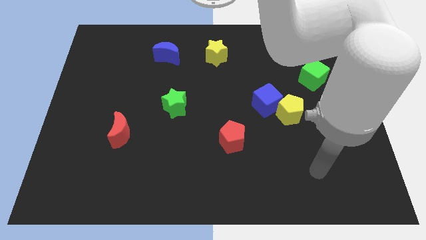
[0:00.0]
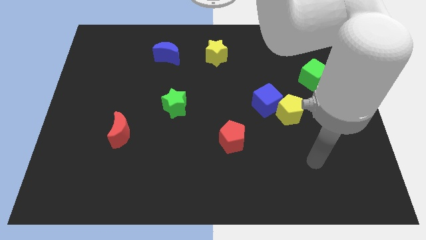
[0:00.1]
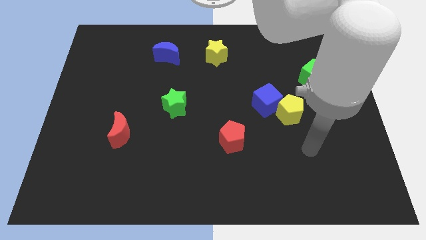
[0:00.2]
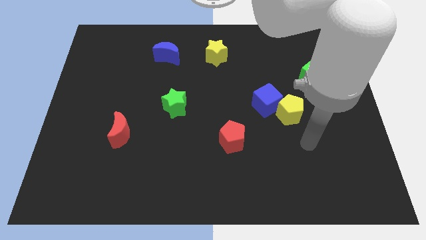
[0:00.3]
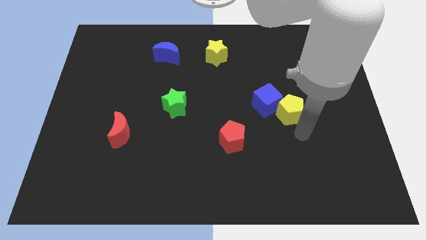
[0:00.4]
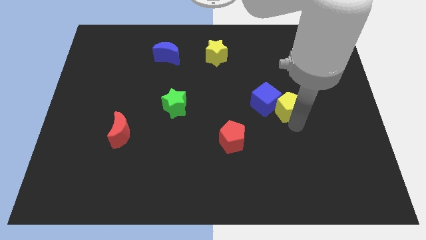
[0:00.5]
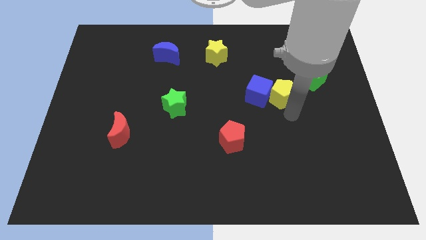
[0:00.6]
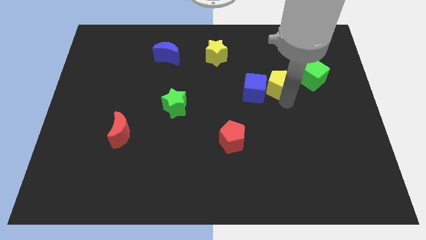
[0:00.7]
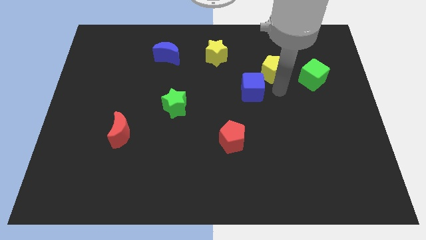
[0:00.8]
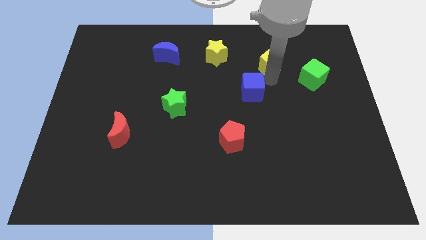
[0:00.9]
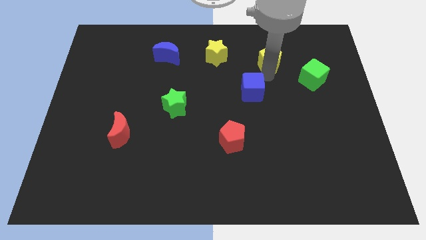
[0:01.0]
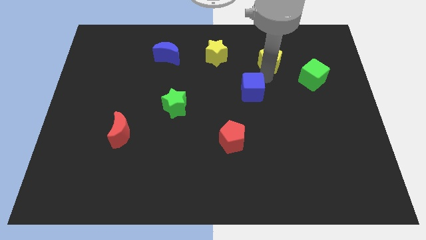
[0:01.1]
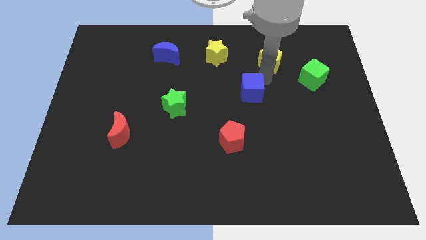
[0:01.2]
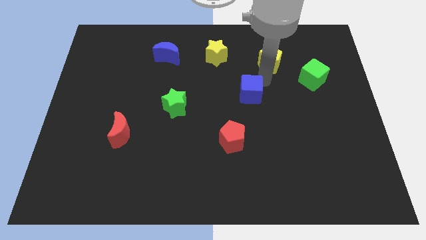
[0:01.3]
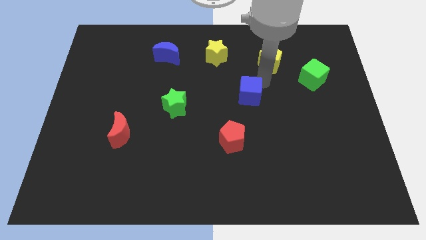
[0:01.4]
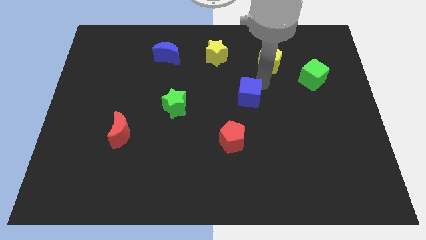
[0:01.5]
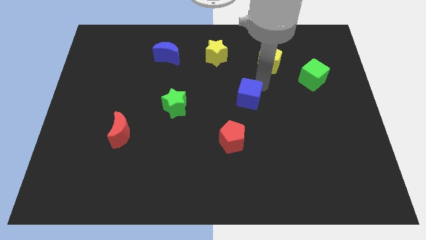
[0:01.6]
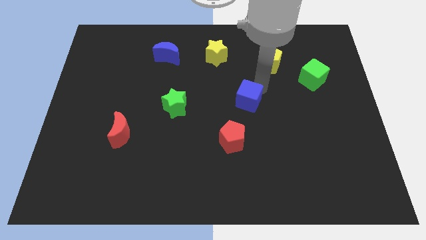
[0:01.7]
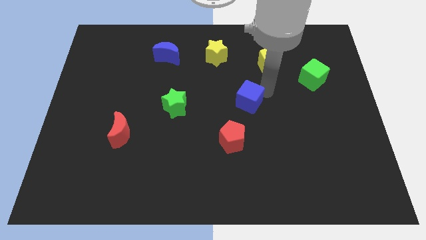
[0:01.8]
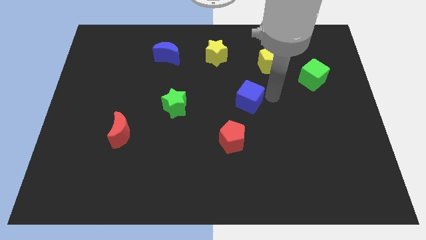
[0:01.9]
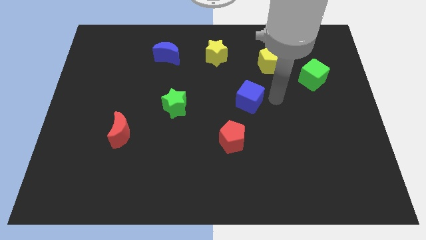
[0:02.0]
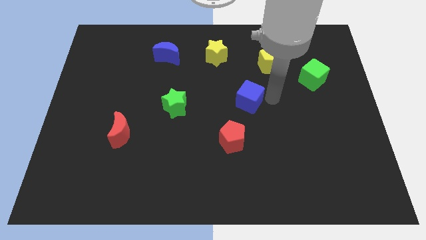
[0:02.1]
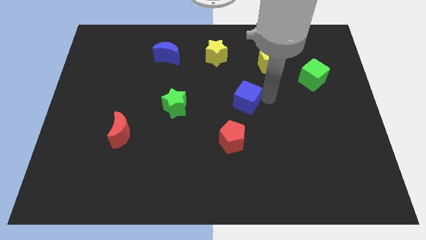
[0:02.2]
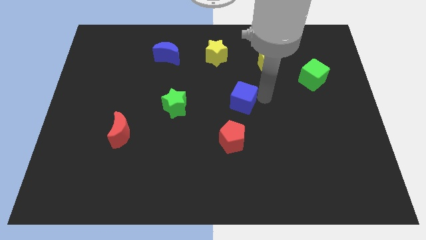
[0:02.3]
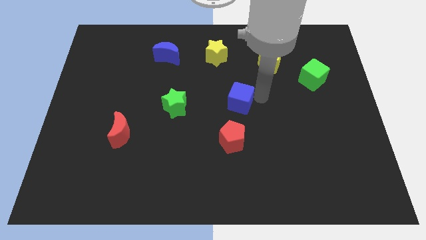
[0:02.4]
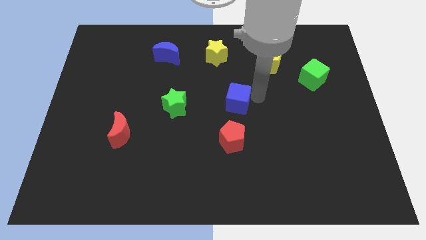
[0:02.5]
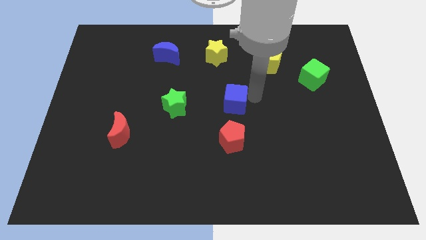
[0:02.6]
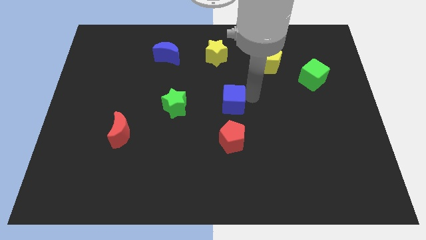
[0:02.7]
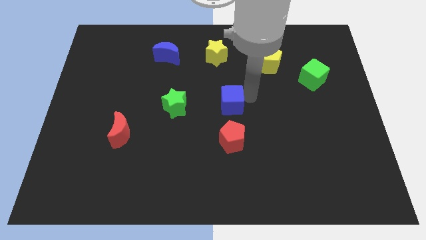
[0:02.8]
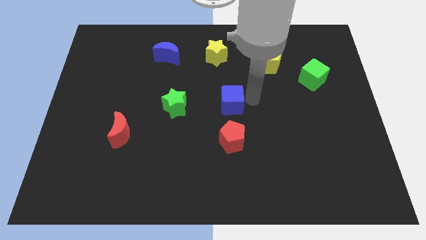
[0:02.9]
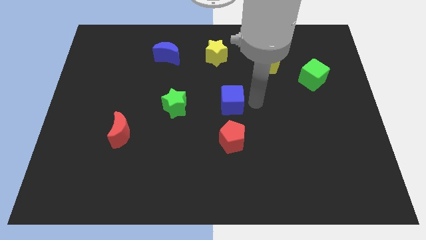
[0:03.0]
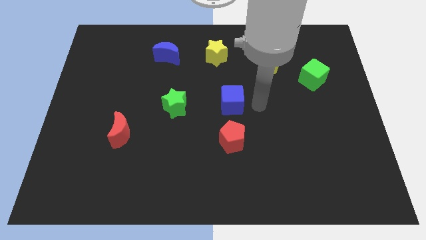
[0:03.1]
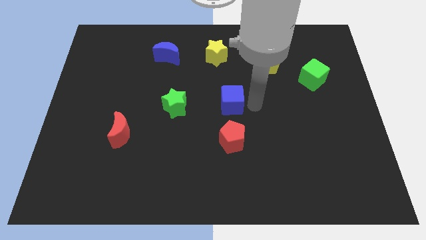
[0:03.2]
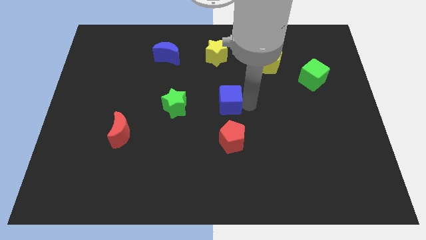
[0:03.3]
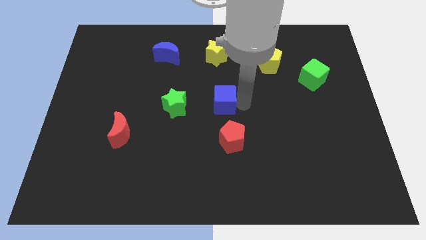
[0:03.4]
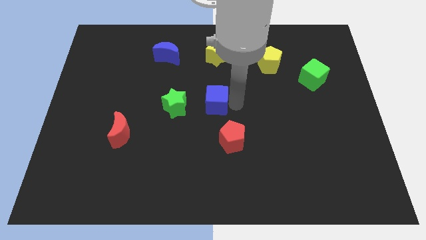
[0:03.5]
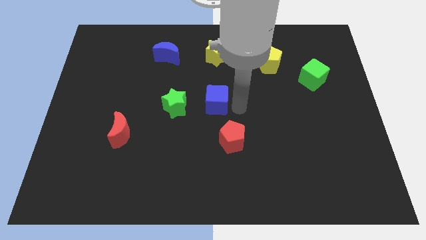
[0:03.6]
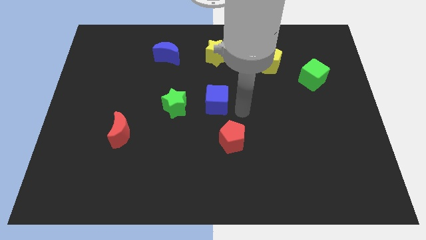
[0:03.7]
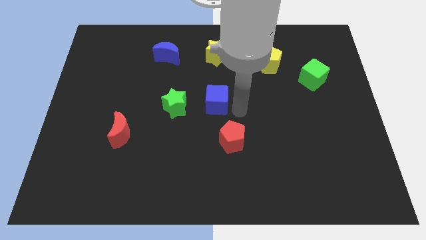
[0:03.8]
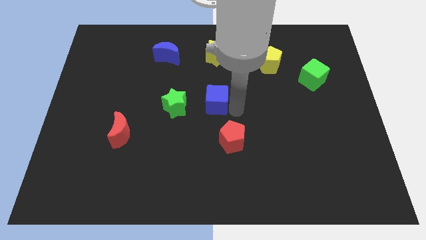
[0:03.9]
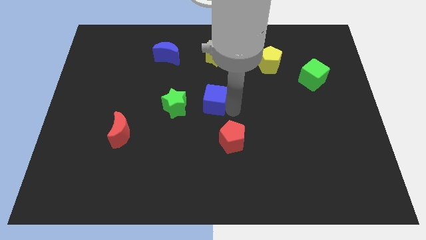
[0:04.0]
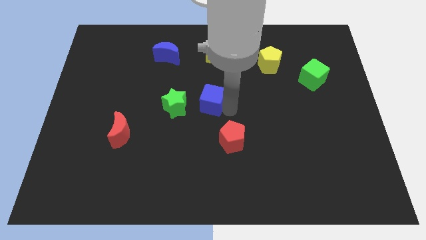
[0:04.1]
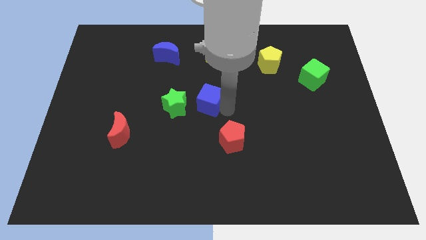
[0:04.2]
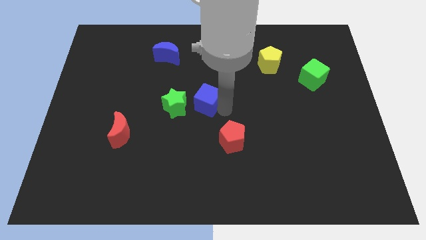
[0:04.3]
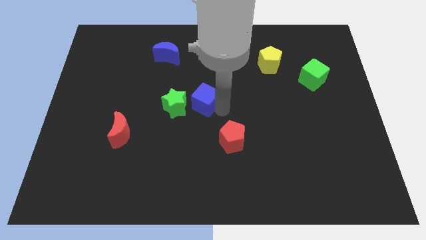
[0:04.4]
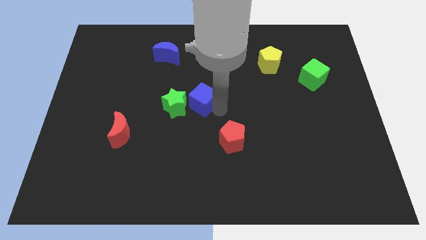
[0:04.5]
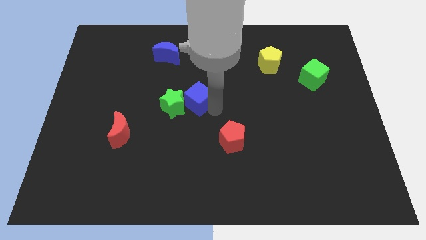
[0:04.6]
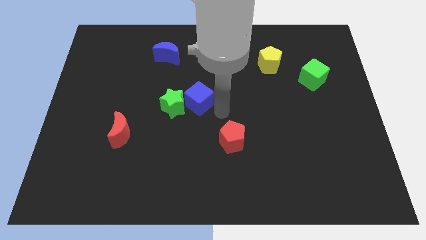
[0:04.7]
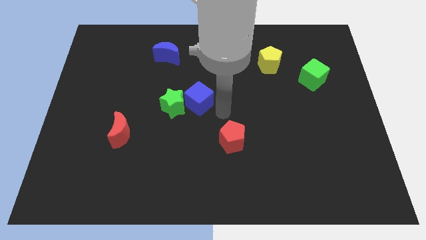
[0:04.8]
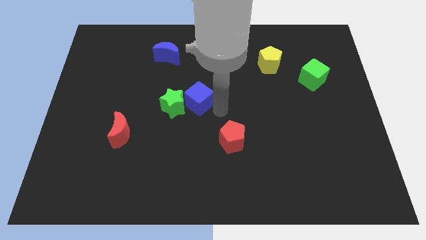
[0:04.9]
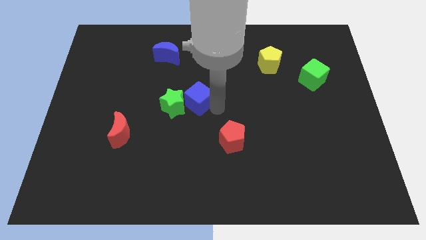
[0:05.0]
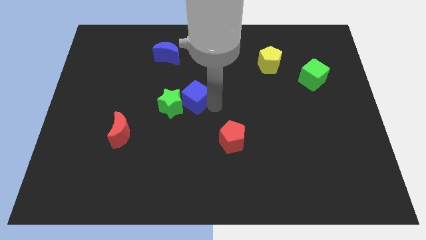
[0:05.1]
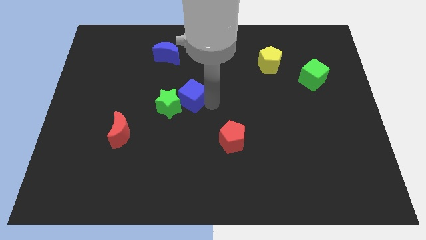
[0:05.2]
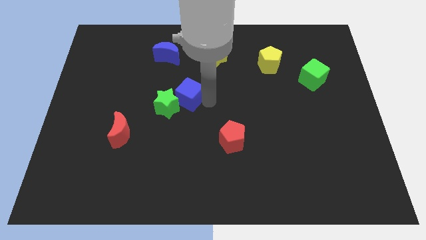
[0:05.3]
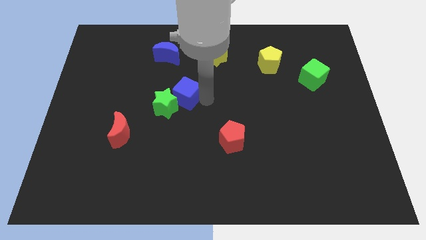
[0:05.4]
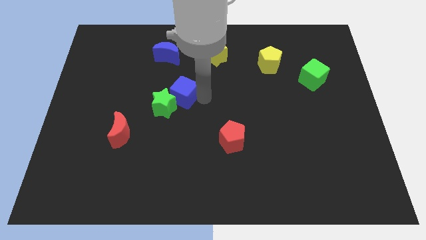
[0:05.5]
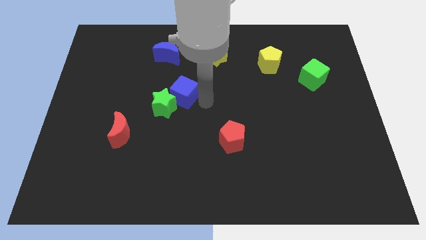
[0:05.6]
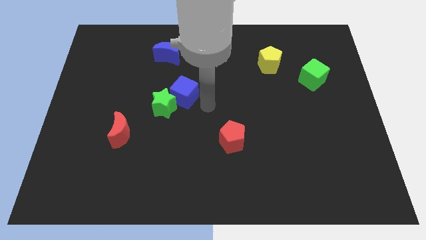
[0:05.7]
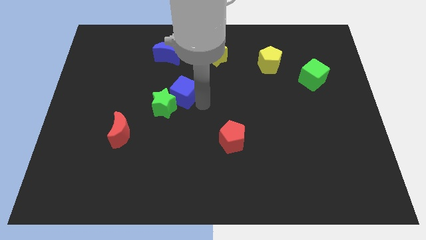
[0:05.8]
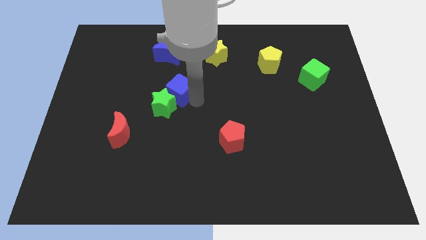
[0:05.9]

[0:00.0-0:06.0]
put the blue cube to the bottom side of the blue moon

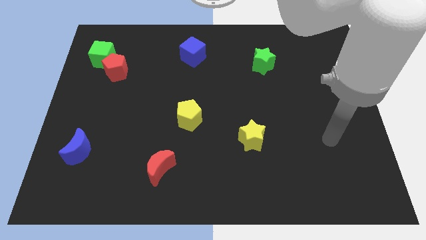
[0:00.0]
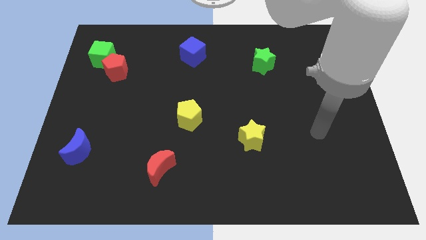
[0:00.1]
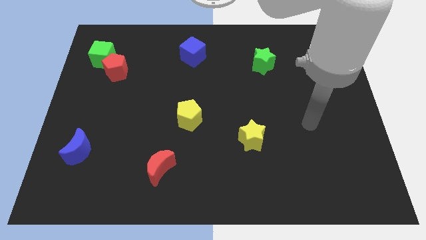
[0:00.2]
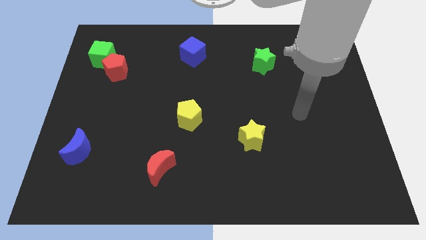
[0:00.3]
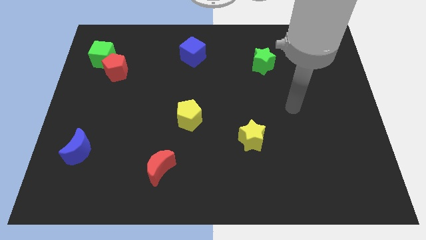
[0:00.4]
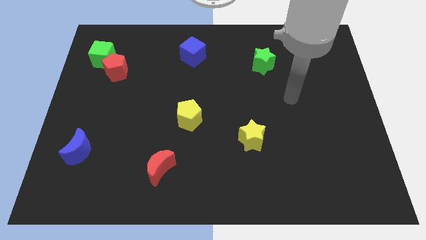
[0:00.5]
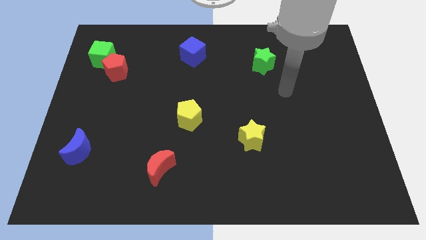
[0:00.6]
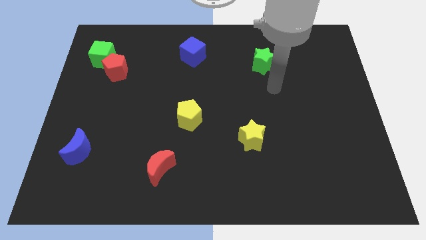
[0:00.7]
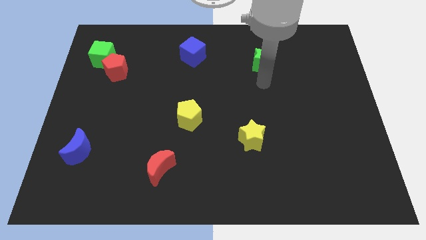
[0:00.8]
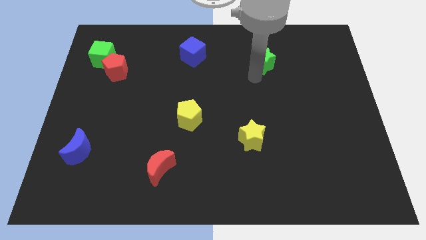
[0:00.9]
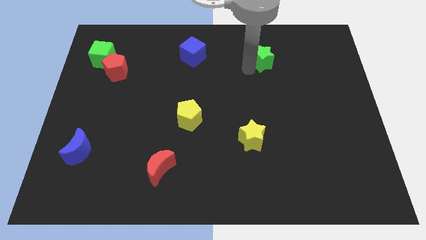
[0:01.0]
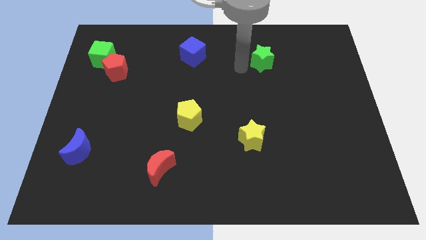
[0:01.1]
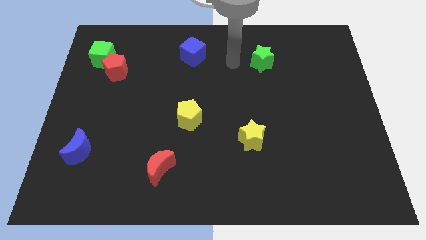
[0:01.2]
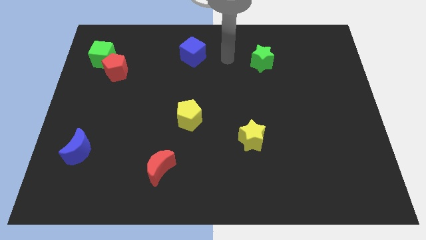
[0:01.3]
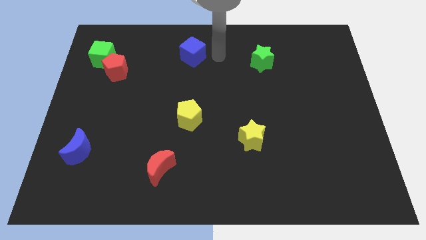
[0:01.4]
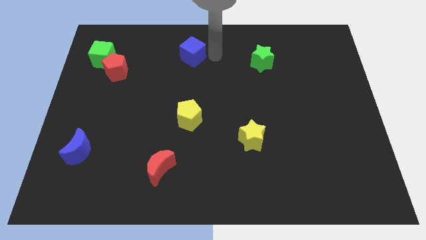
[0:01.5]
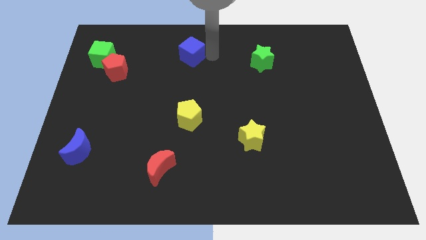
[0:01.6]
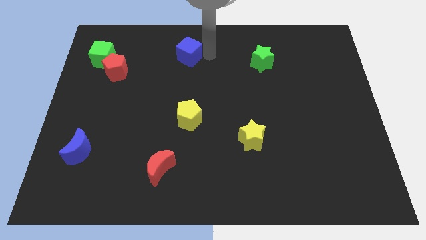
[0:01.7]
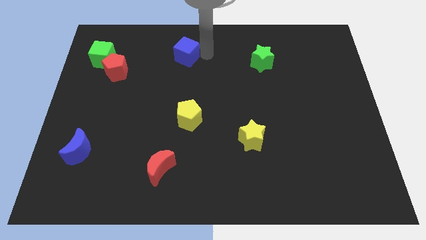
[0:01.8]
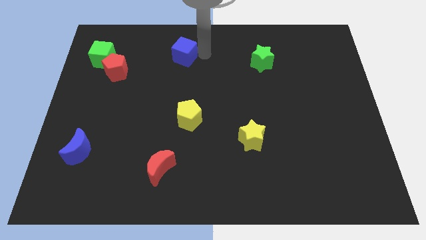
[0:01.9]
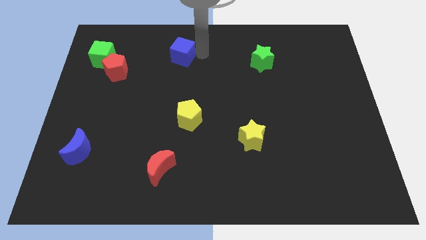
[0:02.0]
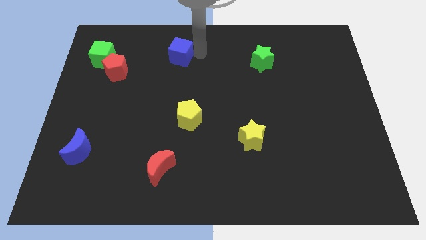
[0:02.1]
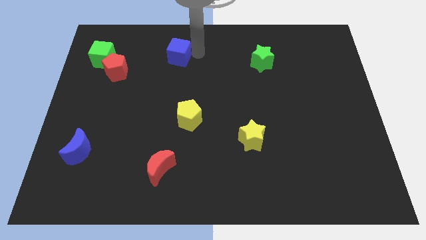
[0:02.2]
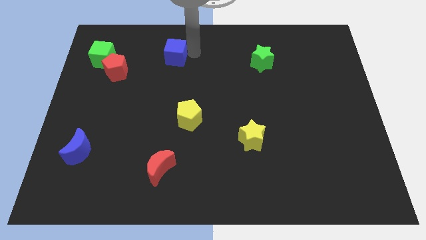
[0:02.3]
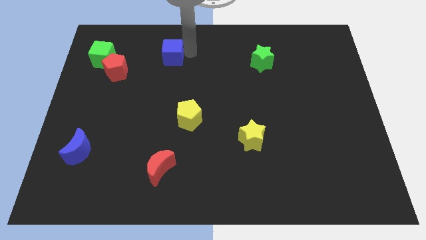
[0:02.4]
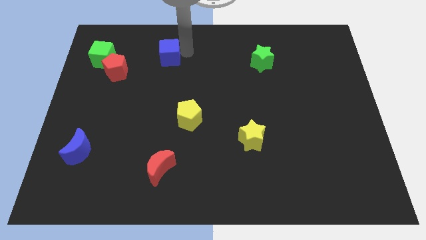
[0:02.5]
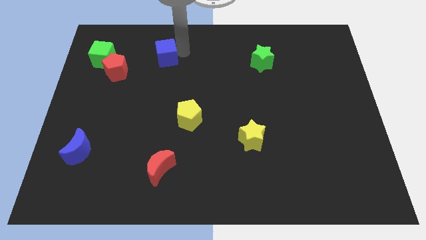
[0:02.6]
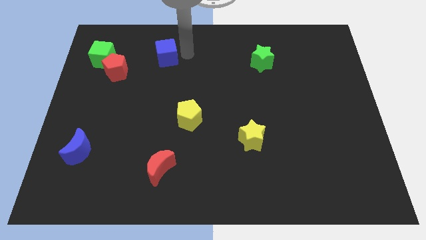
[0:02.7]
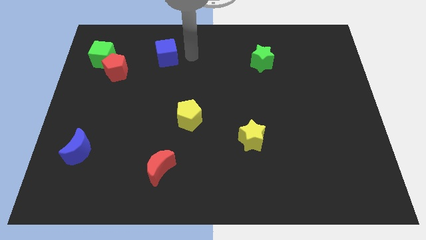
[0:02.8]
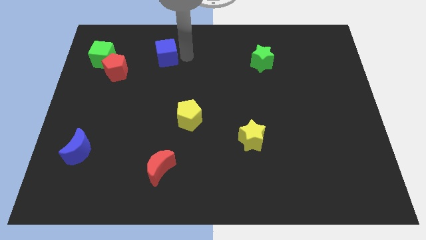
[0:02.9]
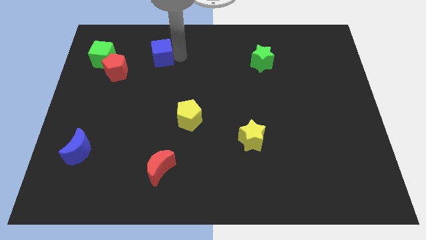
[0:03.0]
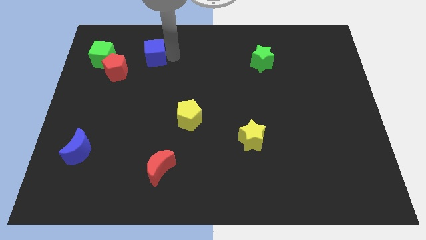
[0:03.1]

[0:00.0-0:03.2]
push the blue cube diagonally up and to the right of the red pentagon
